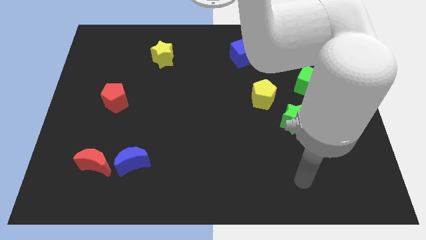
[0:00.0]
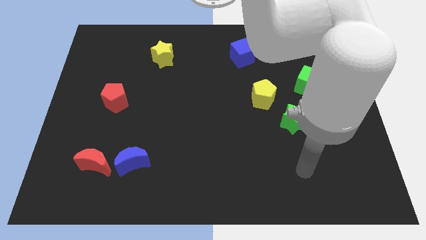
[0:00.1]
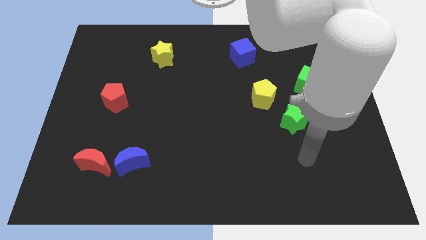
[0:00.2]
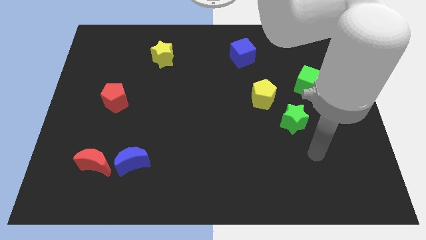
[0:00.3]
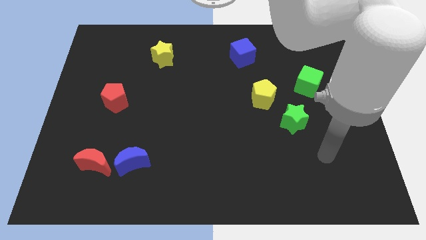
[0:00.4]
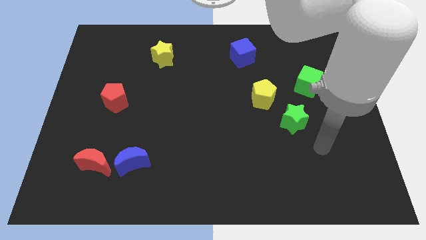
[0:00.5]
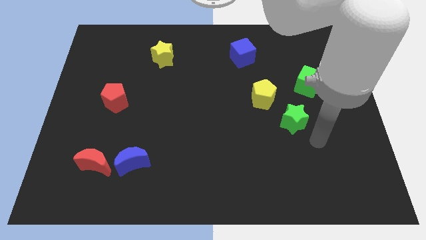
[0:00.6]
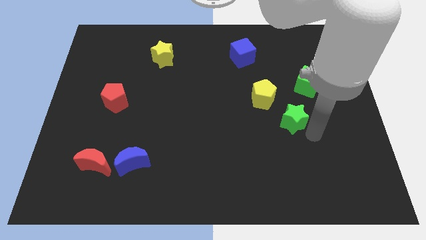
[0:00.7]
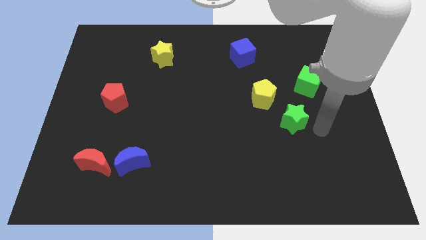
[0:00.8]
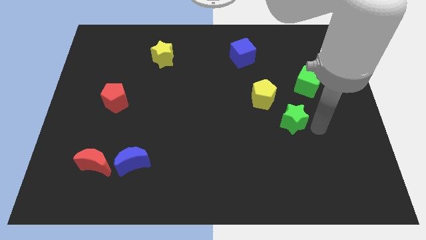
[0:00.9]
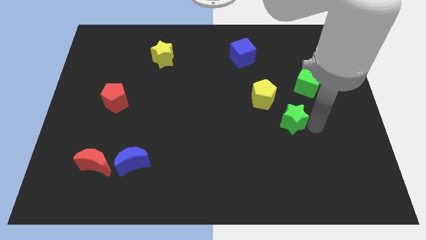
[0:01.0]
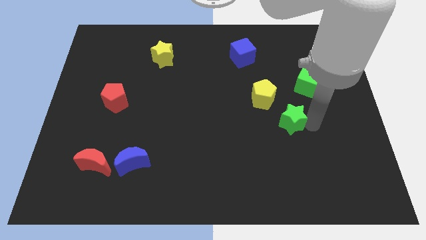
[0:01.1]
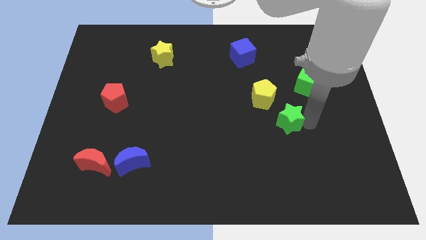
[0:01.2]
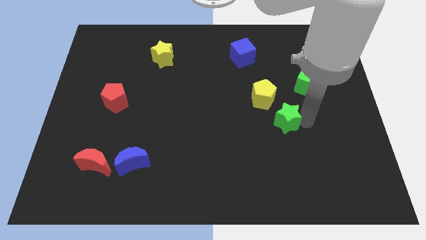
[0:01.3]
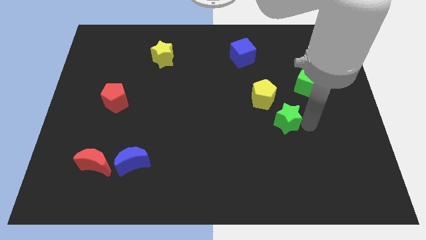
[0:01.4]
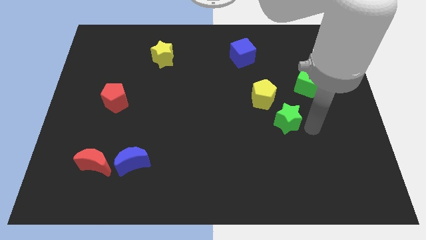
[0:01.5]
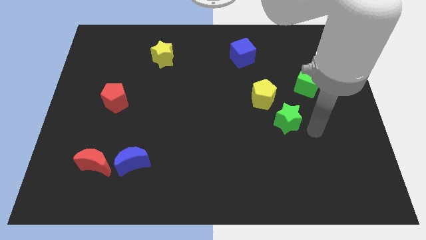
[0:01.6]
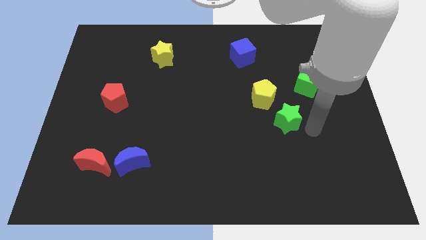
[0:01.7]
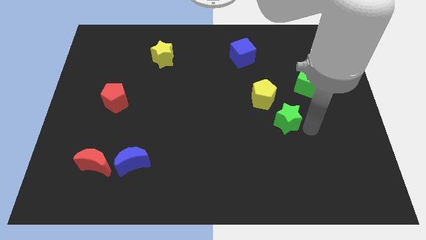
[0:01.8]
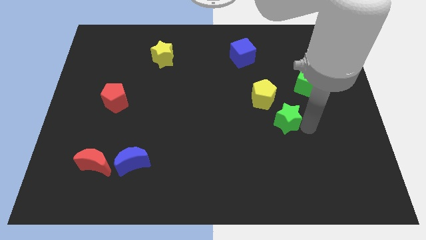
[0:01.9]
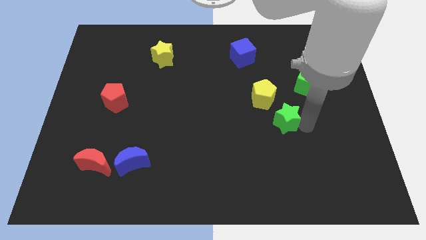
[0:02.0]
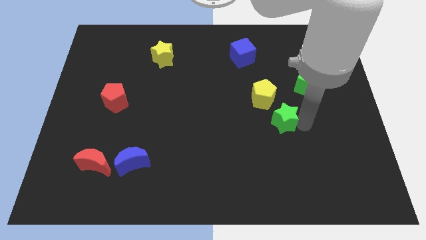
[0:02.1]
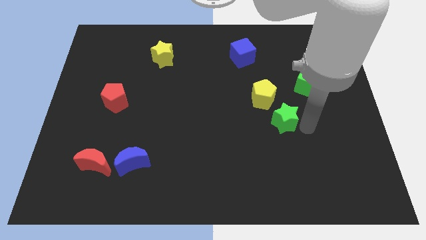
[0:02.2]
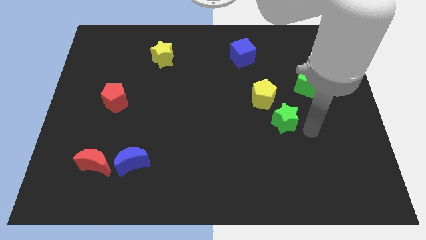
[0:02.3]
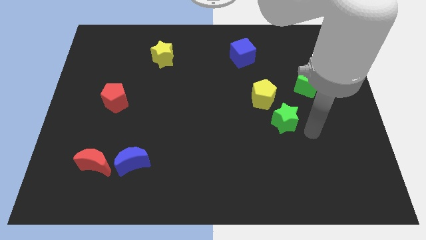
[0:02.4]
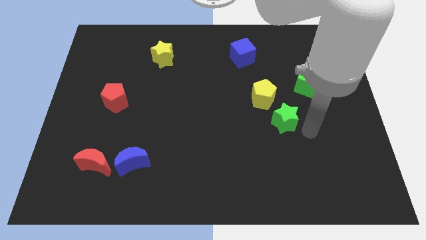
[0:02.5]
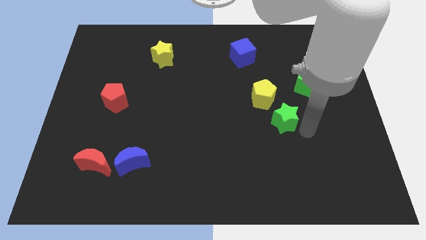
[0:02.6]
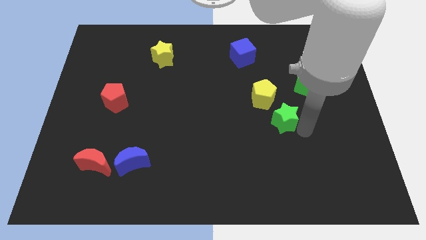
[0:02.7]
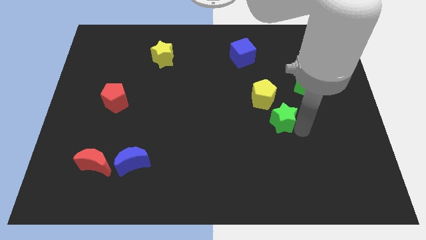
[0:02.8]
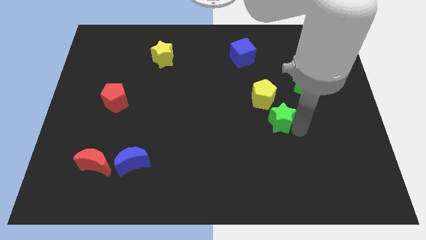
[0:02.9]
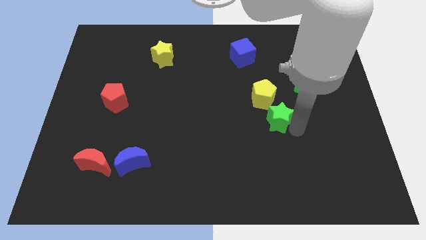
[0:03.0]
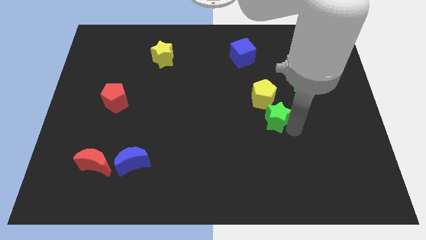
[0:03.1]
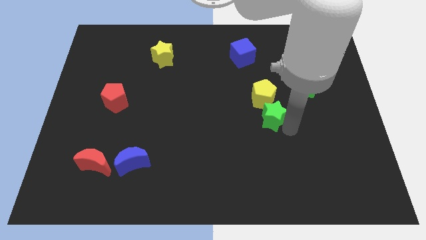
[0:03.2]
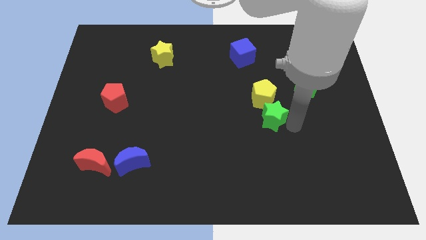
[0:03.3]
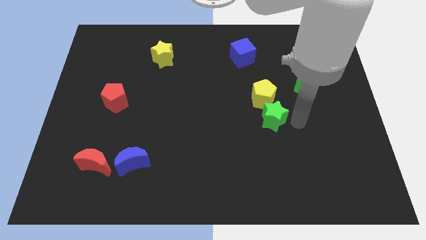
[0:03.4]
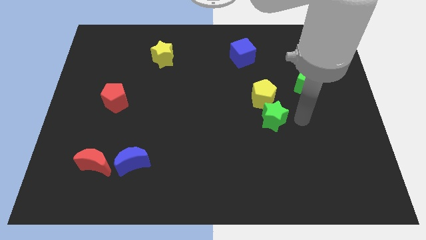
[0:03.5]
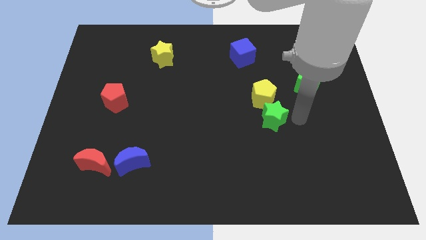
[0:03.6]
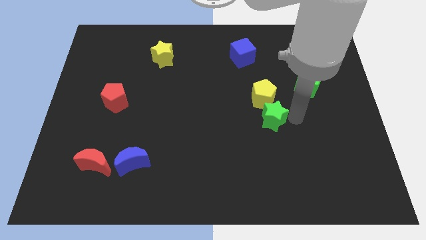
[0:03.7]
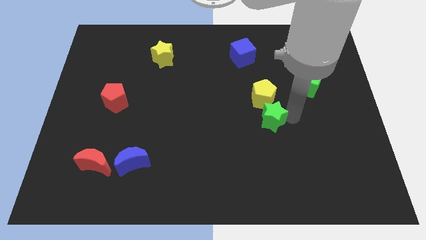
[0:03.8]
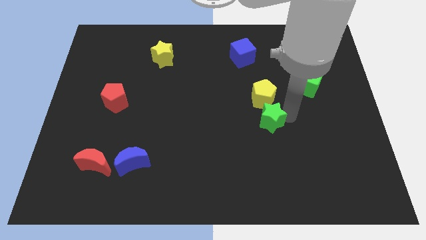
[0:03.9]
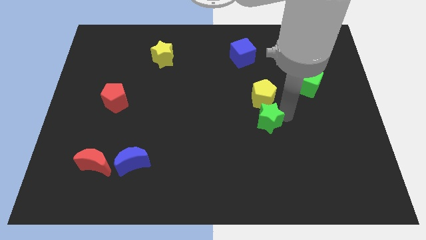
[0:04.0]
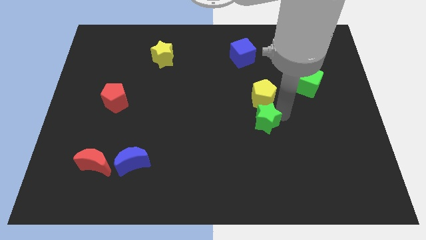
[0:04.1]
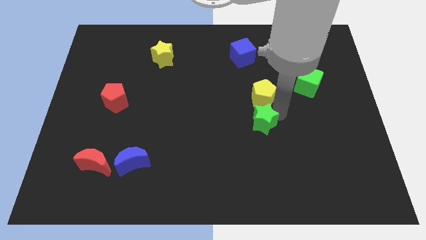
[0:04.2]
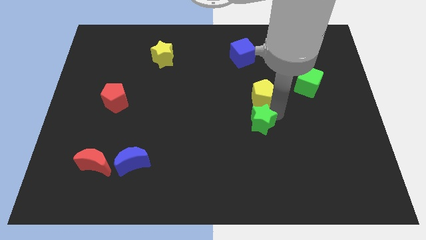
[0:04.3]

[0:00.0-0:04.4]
slide the green star to the left a bit

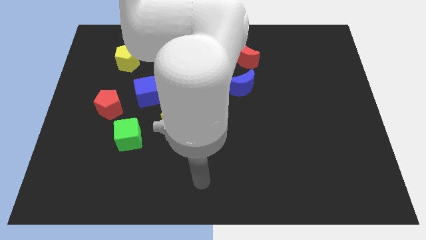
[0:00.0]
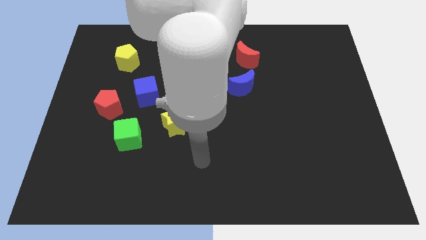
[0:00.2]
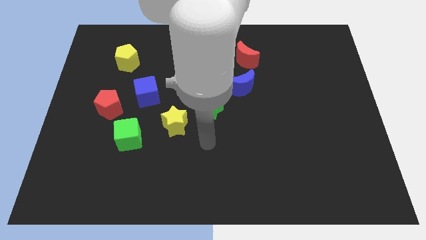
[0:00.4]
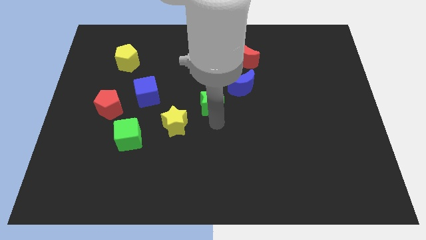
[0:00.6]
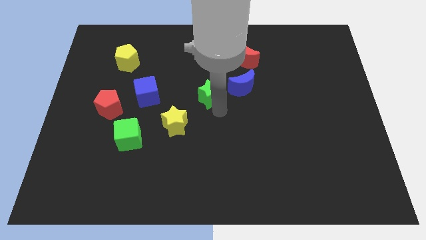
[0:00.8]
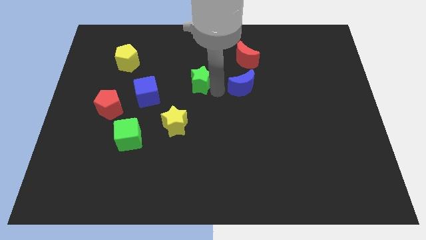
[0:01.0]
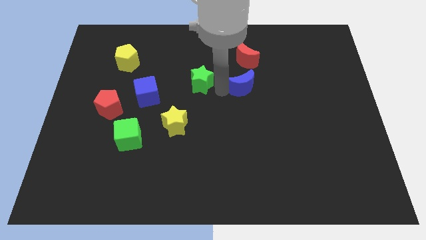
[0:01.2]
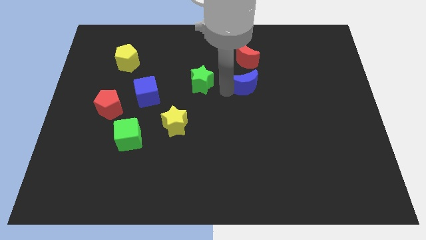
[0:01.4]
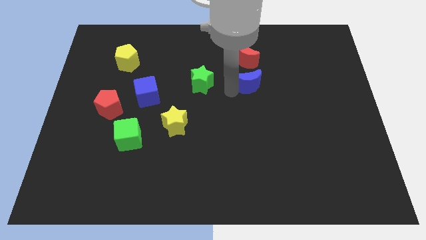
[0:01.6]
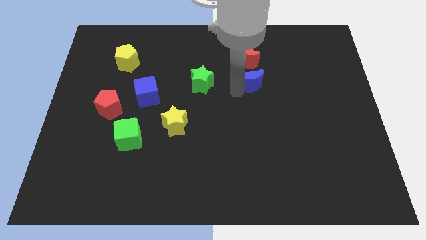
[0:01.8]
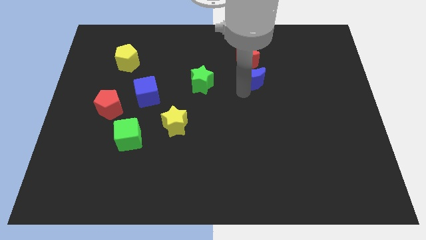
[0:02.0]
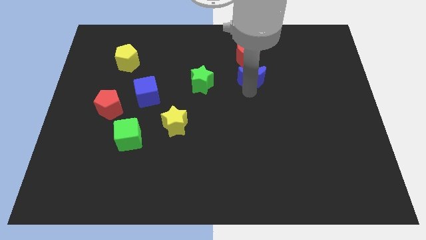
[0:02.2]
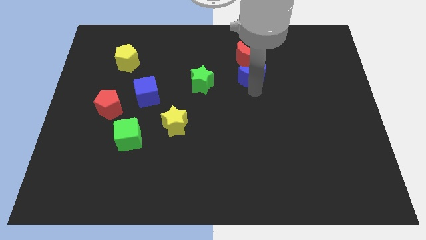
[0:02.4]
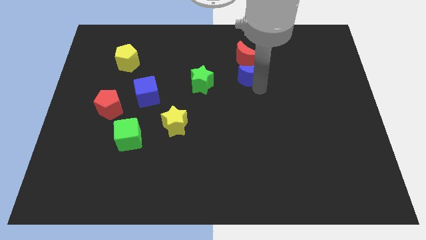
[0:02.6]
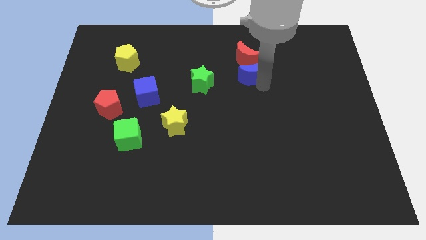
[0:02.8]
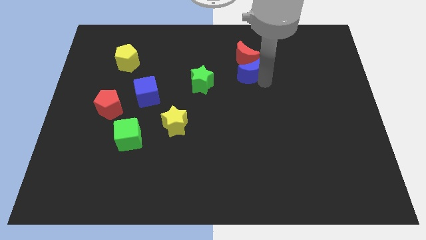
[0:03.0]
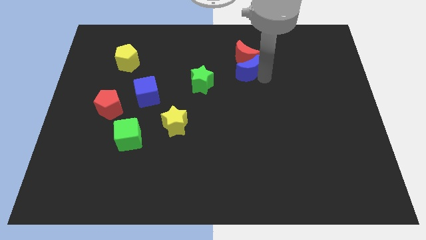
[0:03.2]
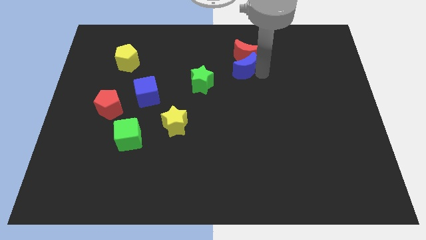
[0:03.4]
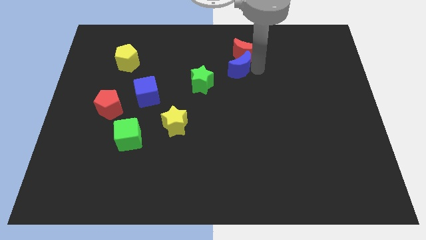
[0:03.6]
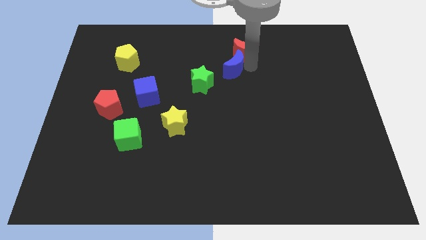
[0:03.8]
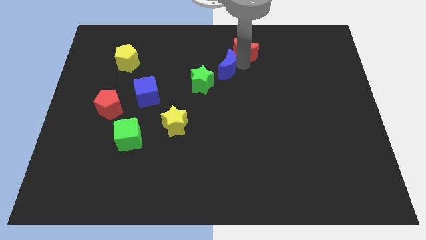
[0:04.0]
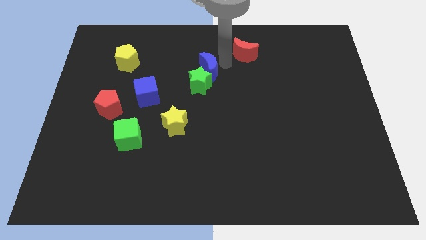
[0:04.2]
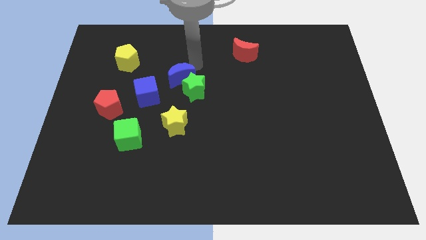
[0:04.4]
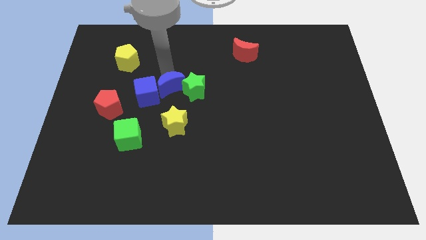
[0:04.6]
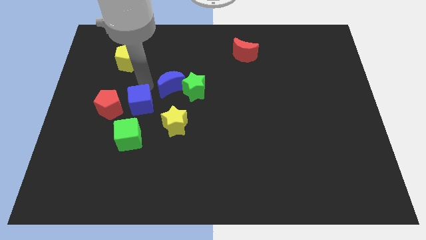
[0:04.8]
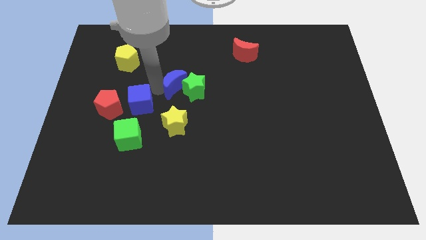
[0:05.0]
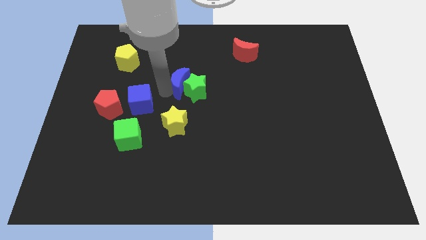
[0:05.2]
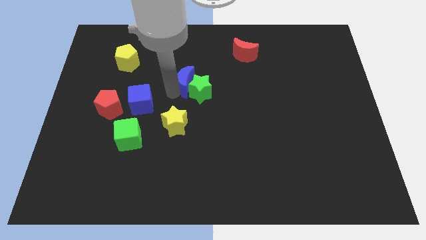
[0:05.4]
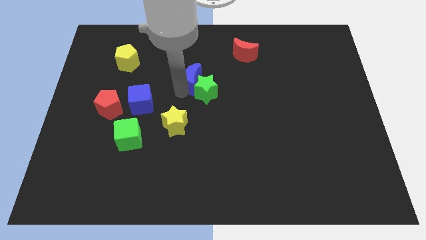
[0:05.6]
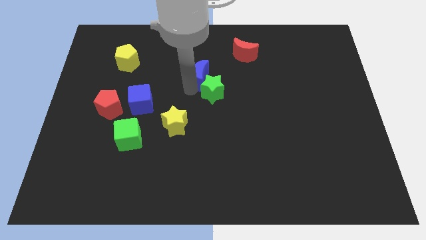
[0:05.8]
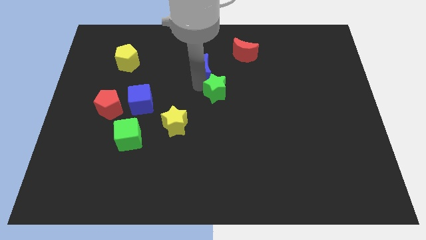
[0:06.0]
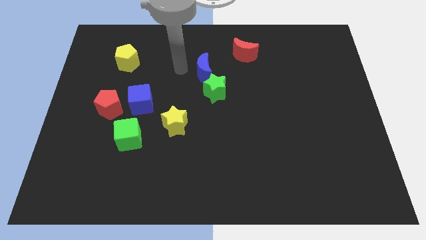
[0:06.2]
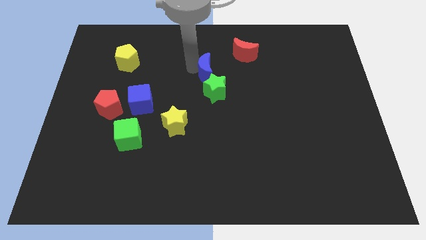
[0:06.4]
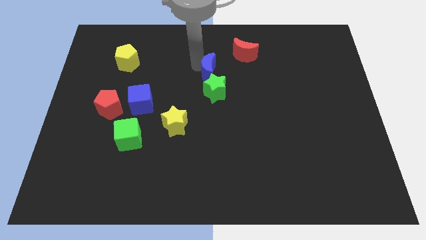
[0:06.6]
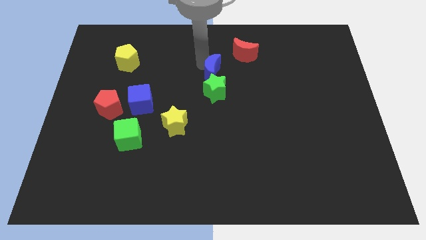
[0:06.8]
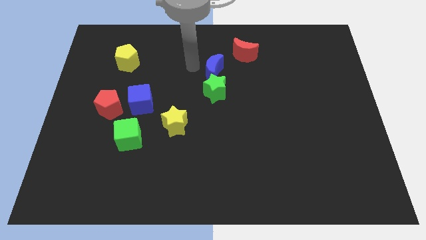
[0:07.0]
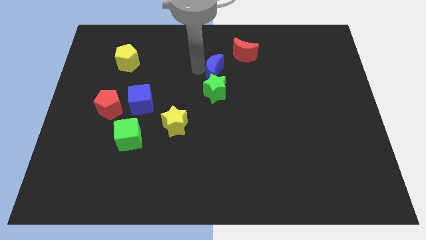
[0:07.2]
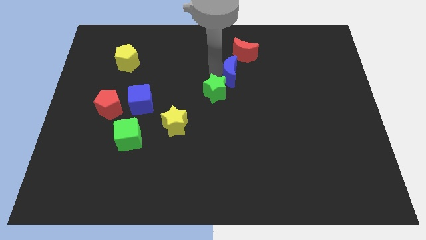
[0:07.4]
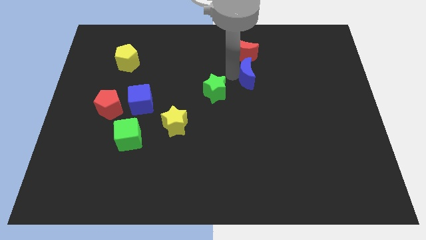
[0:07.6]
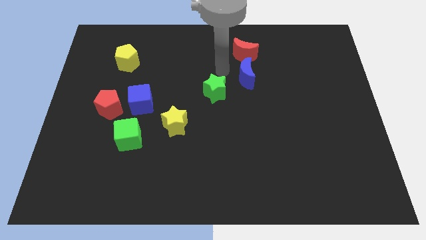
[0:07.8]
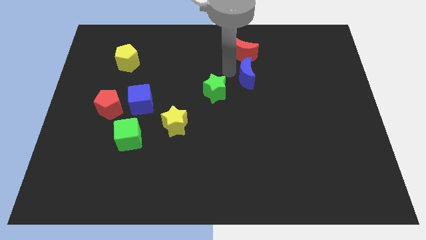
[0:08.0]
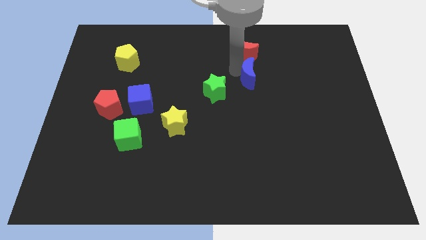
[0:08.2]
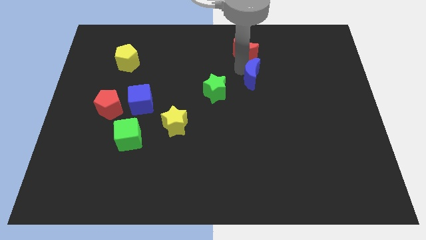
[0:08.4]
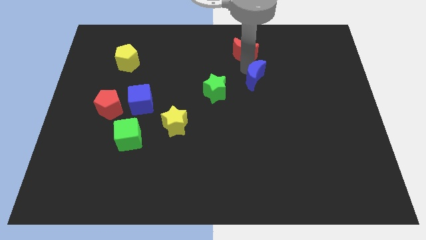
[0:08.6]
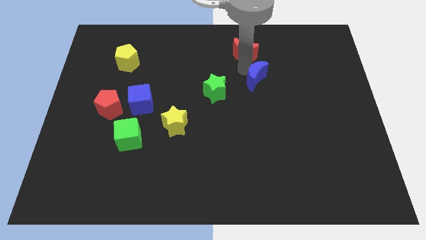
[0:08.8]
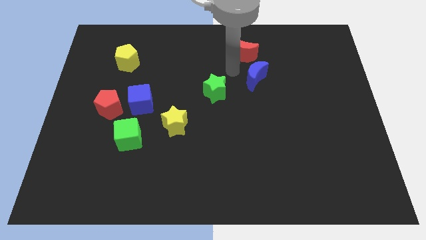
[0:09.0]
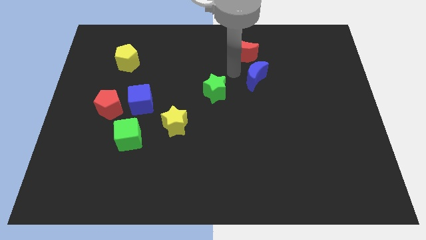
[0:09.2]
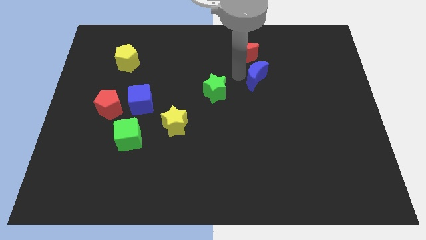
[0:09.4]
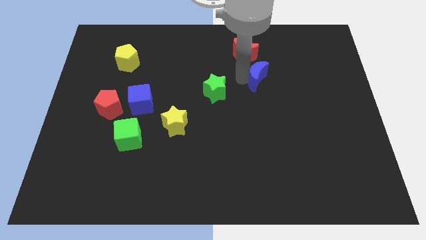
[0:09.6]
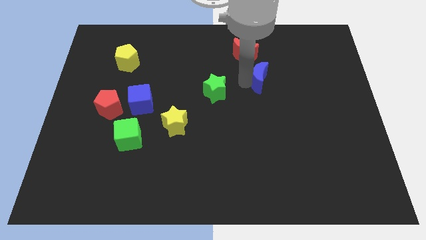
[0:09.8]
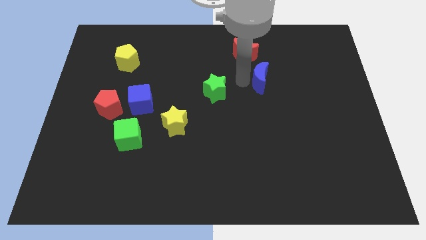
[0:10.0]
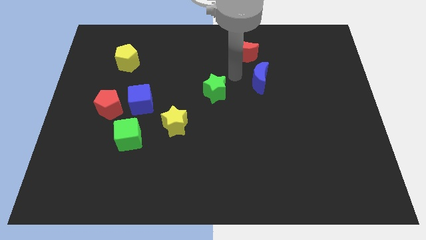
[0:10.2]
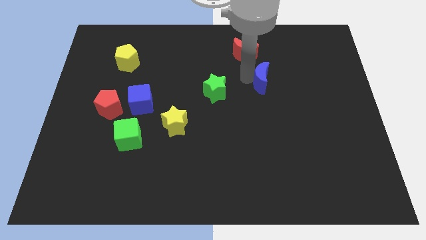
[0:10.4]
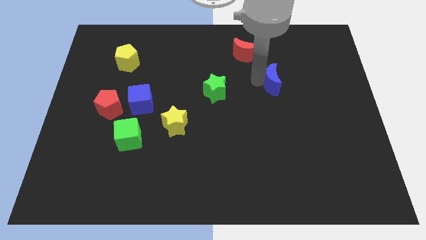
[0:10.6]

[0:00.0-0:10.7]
push the blue moon right slightly
